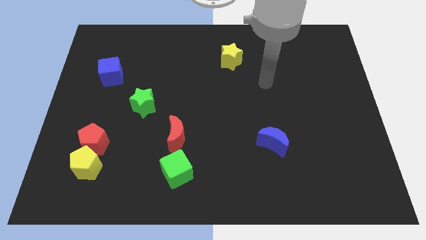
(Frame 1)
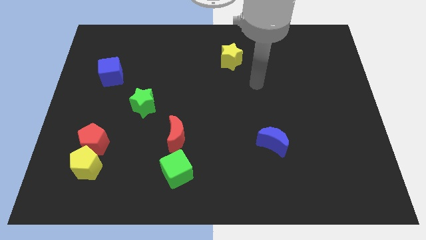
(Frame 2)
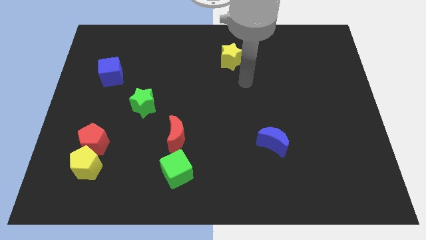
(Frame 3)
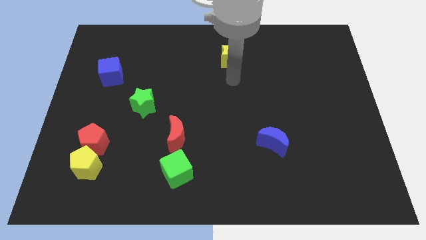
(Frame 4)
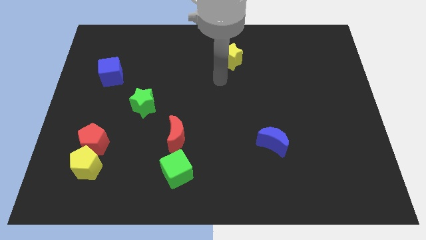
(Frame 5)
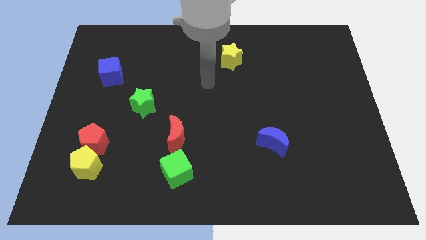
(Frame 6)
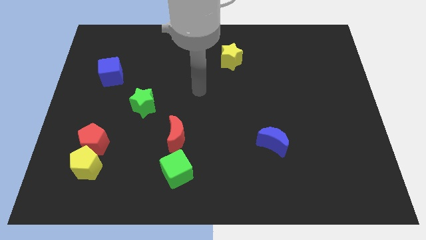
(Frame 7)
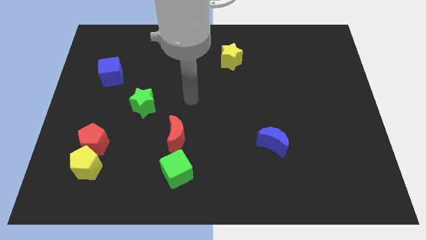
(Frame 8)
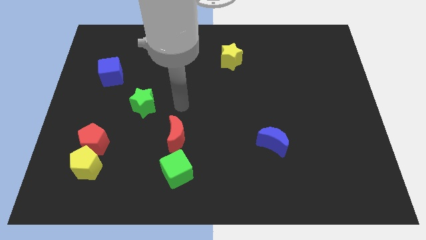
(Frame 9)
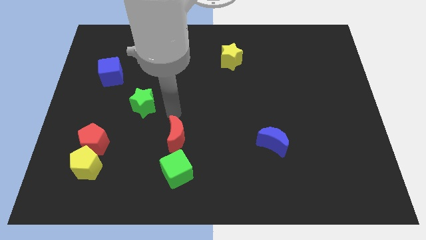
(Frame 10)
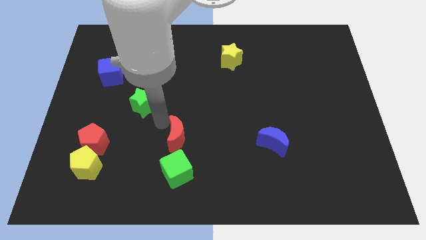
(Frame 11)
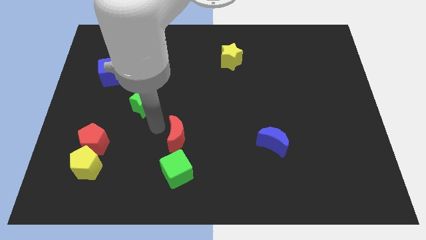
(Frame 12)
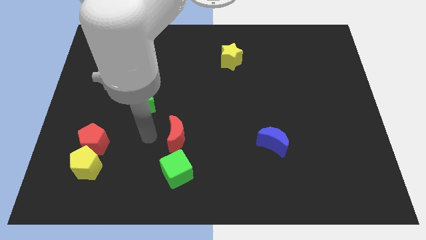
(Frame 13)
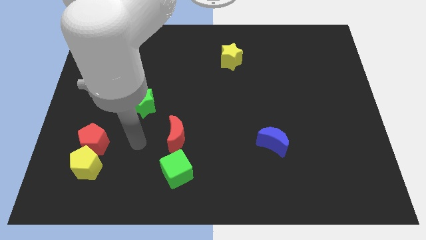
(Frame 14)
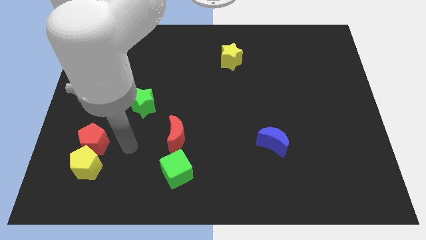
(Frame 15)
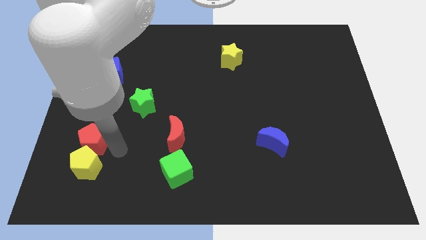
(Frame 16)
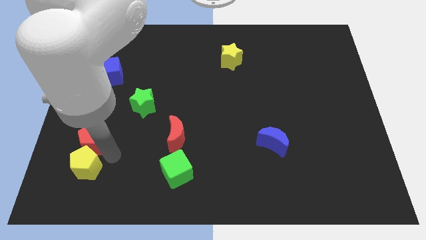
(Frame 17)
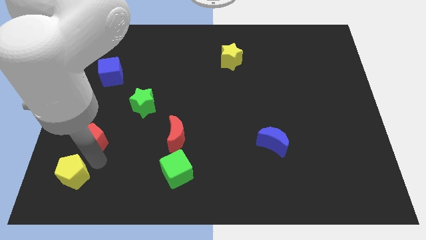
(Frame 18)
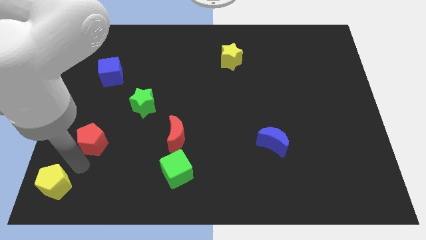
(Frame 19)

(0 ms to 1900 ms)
move the red pentagon away from the yellow pentagon

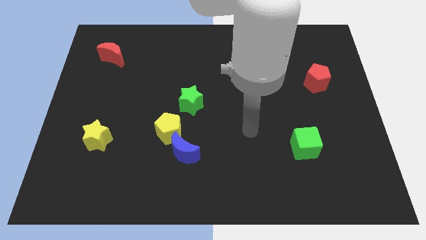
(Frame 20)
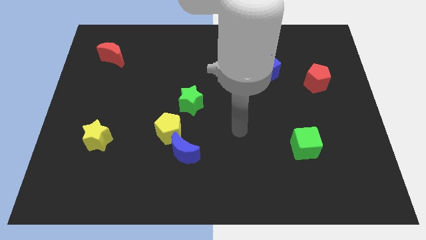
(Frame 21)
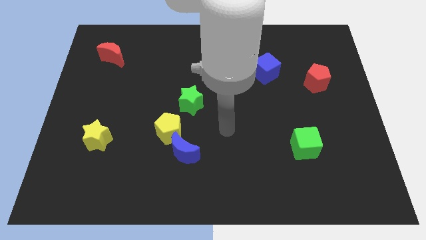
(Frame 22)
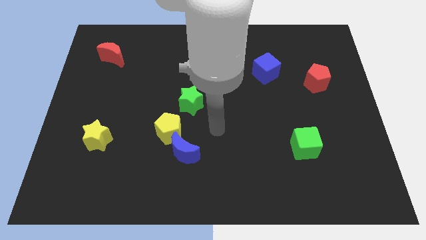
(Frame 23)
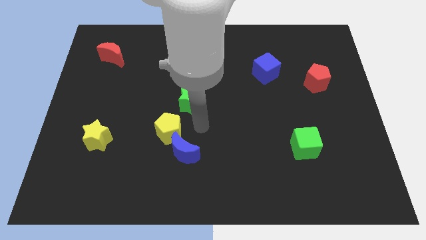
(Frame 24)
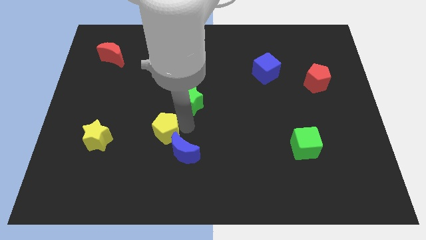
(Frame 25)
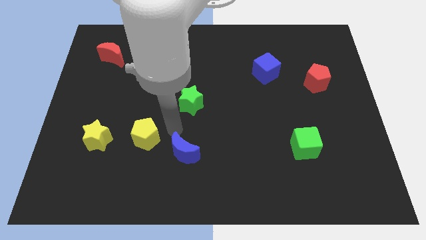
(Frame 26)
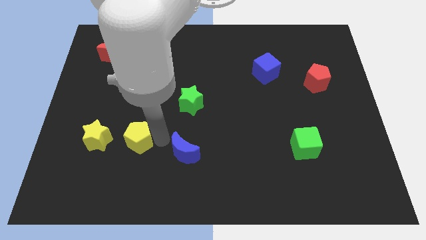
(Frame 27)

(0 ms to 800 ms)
separate the blue moon from the yellow pentagon

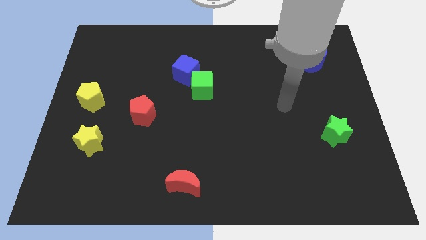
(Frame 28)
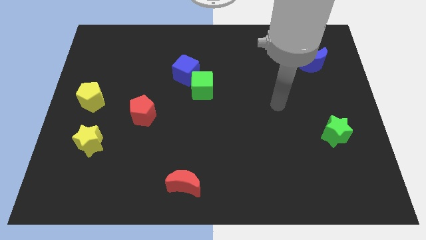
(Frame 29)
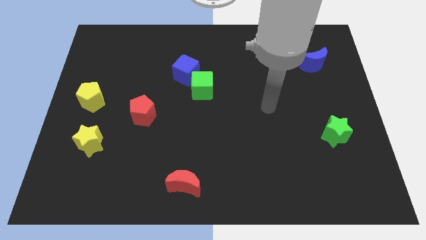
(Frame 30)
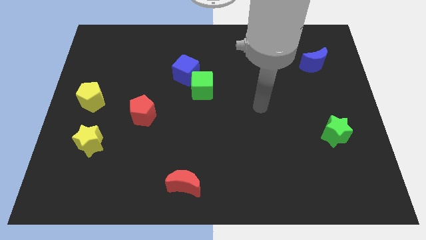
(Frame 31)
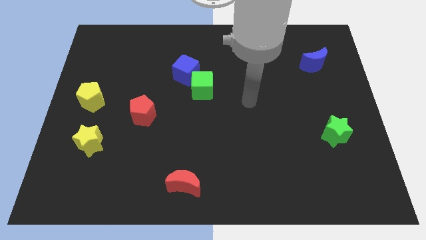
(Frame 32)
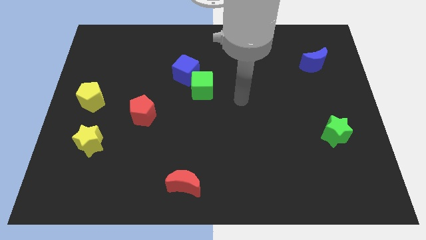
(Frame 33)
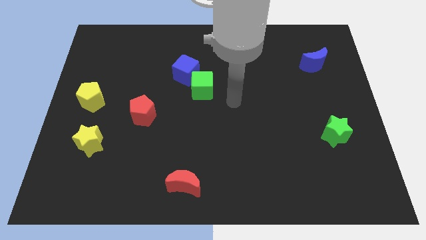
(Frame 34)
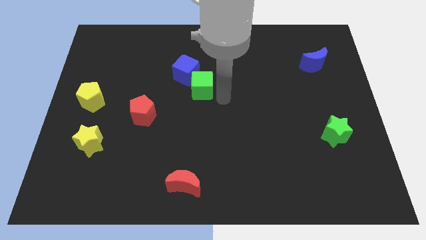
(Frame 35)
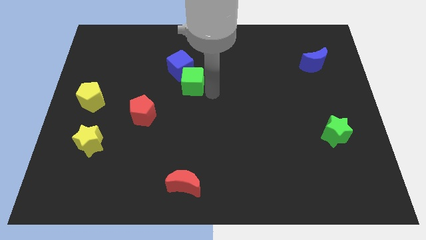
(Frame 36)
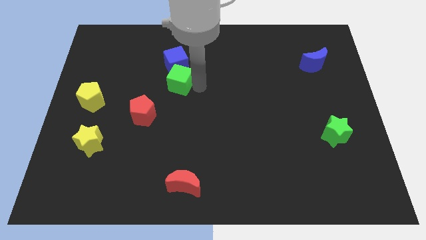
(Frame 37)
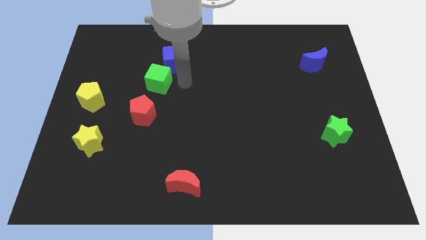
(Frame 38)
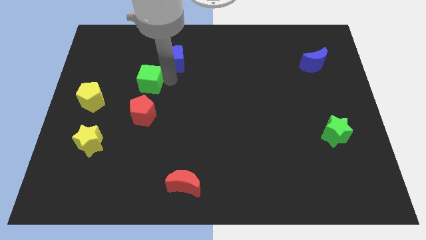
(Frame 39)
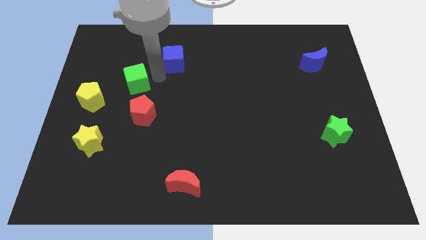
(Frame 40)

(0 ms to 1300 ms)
separate the blue cube from the green cube

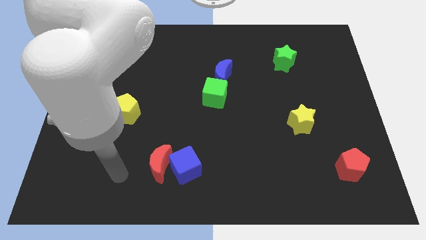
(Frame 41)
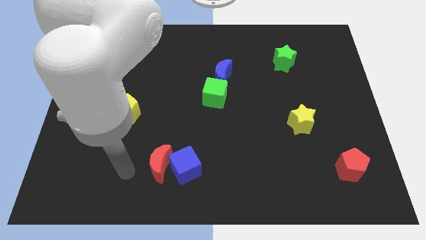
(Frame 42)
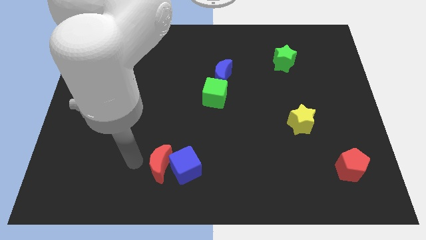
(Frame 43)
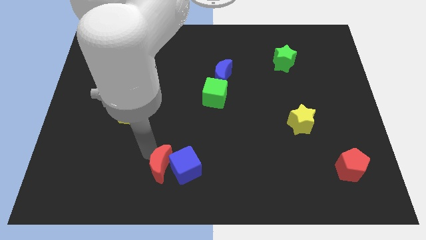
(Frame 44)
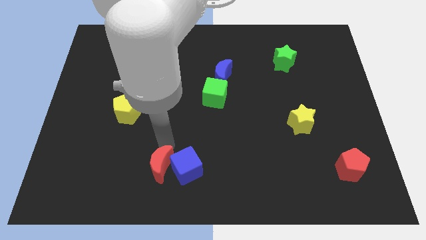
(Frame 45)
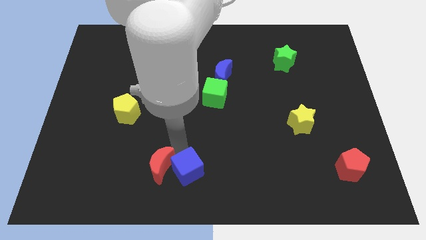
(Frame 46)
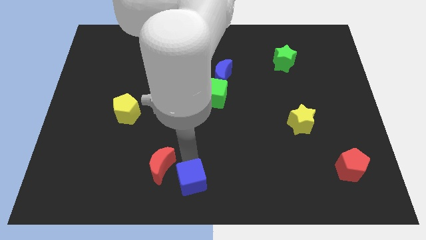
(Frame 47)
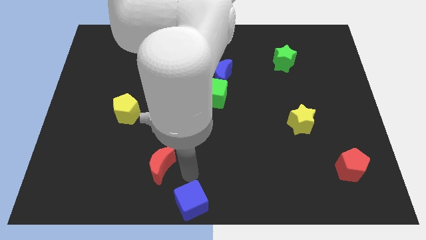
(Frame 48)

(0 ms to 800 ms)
pull the red moon apart from the blue cube

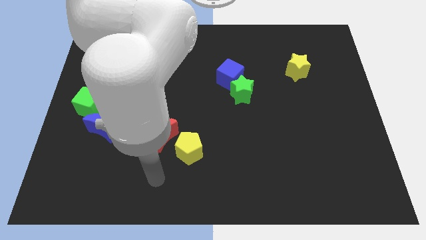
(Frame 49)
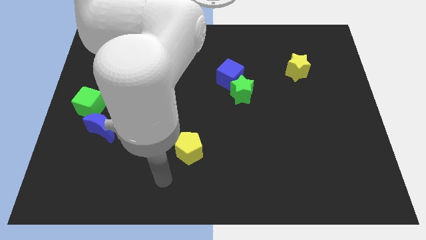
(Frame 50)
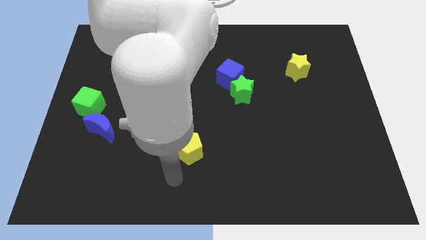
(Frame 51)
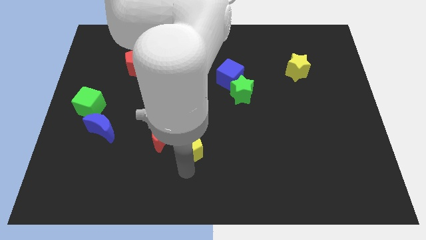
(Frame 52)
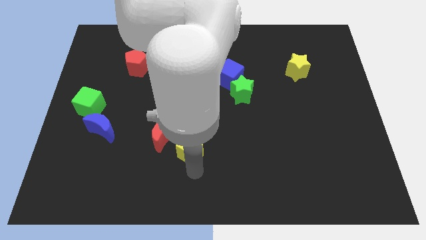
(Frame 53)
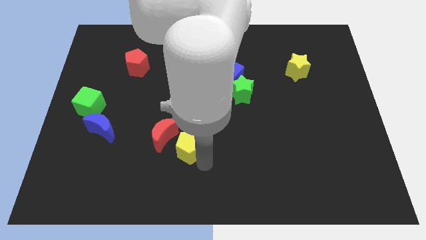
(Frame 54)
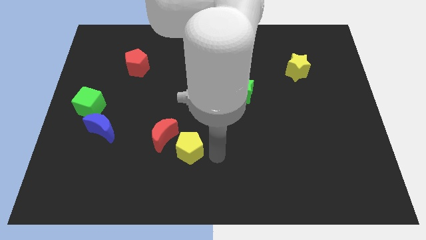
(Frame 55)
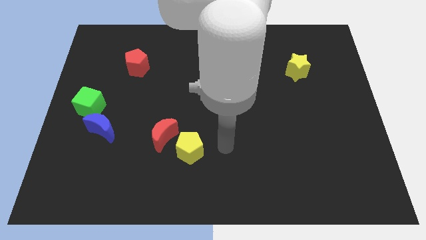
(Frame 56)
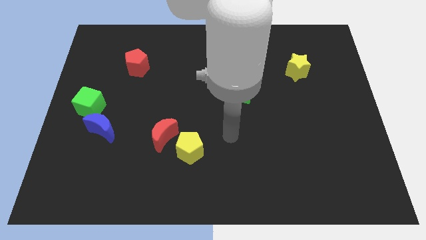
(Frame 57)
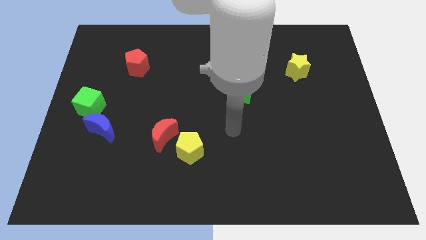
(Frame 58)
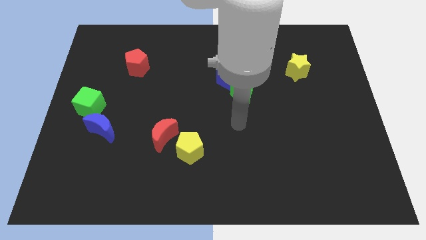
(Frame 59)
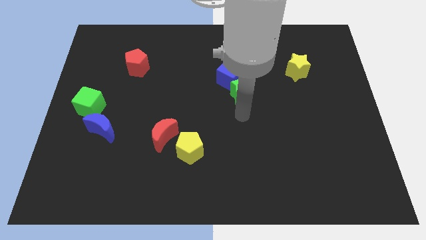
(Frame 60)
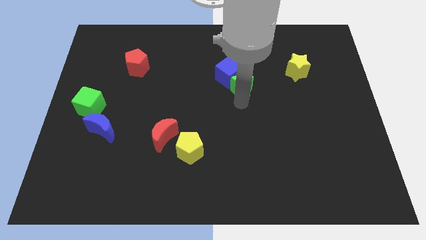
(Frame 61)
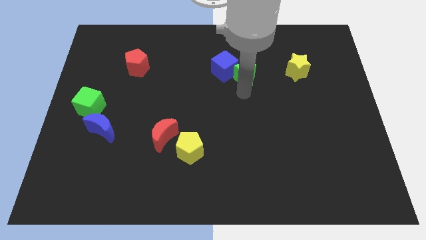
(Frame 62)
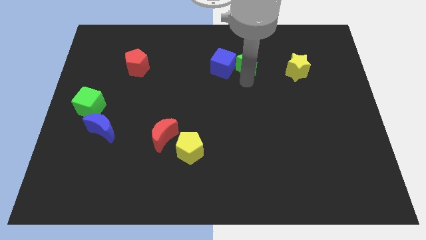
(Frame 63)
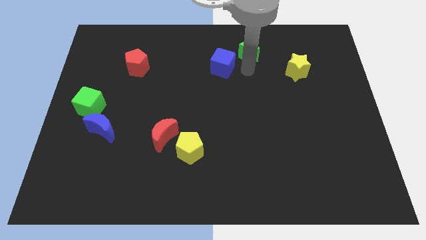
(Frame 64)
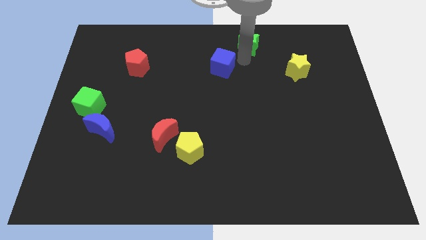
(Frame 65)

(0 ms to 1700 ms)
move the blue cube away from the green star

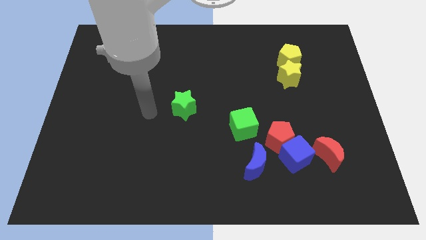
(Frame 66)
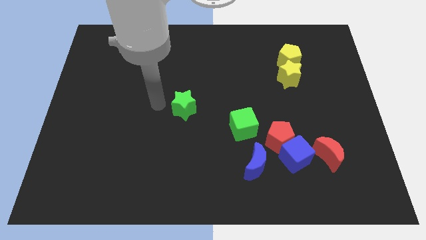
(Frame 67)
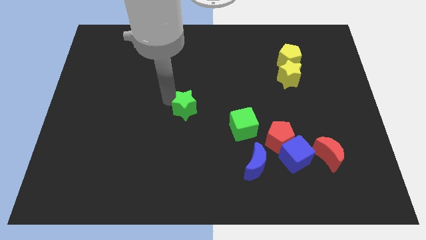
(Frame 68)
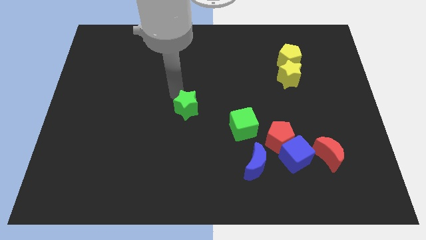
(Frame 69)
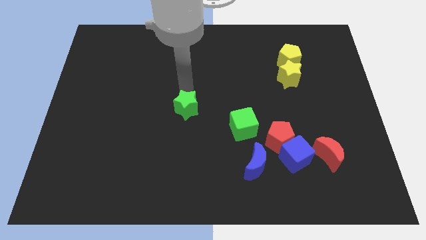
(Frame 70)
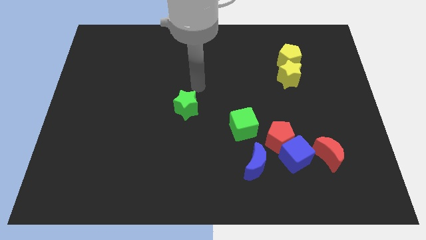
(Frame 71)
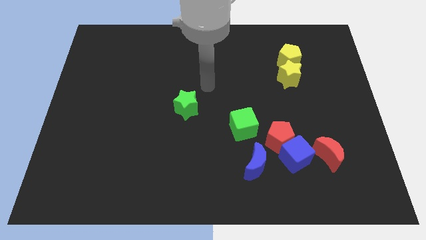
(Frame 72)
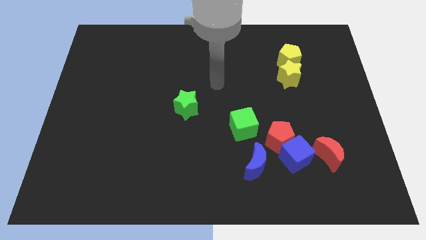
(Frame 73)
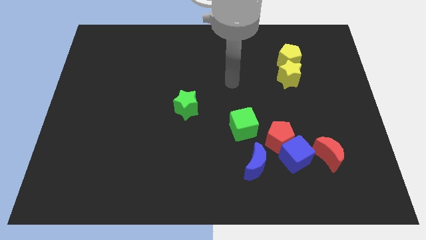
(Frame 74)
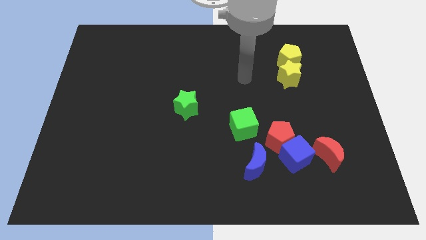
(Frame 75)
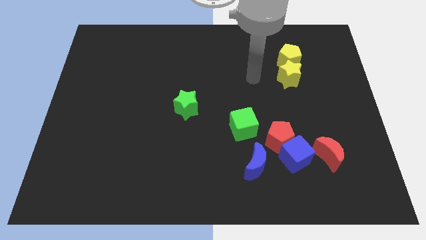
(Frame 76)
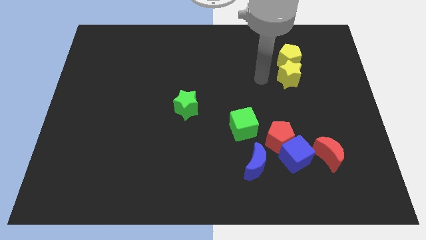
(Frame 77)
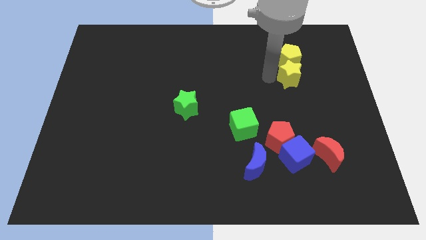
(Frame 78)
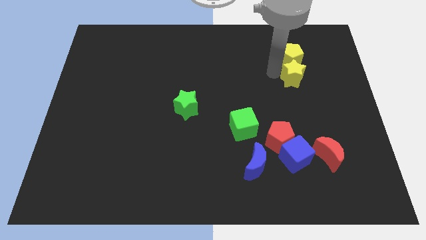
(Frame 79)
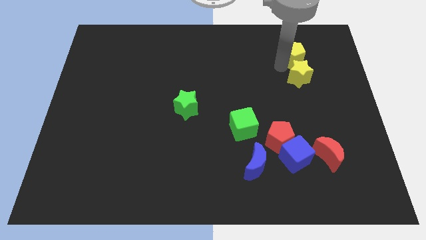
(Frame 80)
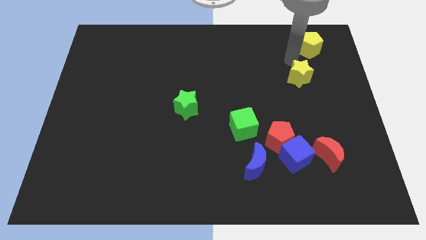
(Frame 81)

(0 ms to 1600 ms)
pull the yellow star apart from the yellow pentagon

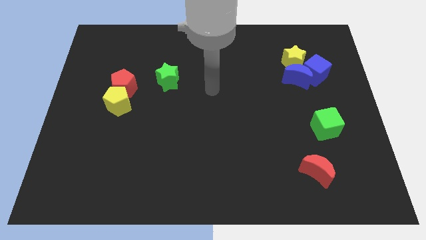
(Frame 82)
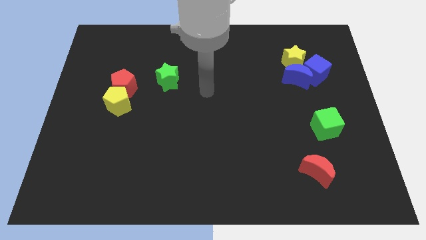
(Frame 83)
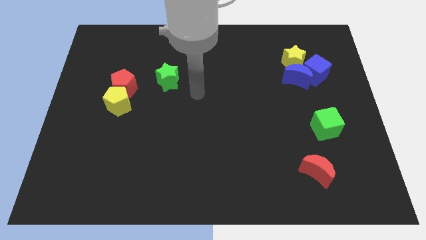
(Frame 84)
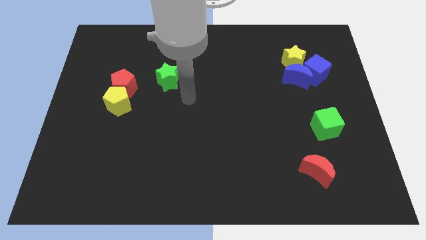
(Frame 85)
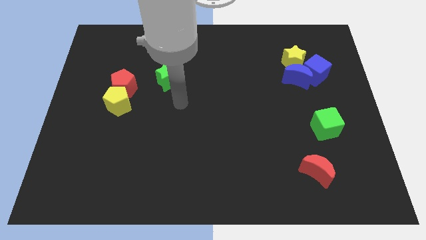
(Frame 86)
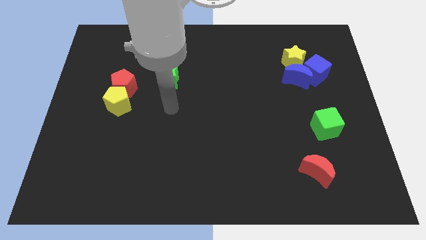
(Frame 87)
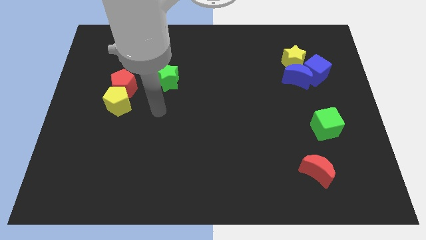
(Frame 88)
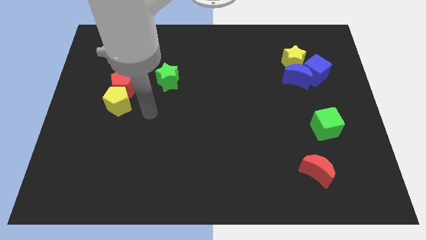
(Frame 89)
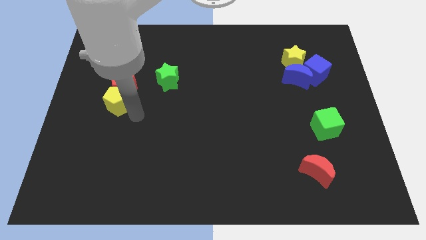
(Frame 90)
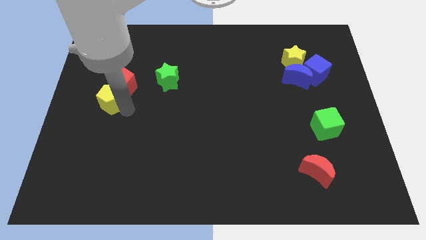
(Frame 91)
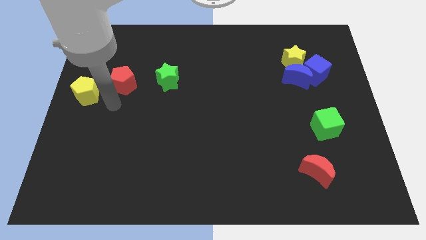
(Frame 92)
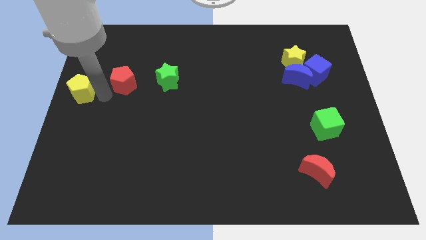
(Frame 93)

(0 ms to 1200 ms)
pull the red pentagon apart from the yellow pentagon

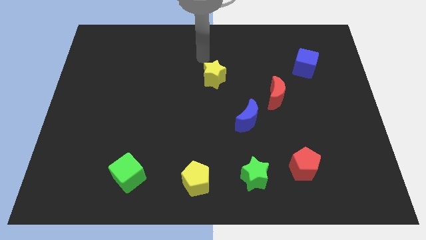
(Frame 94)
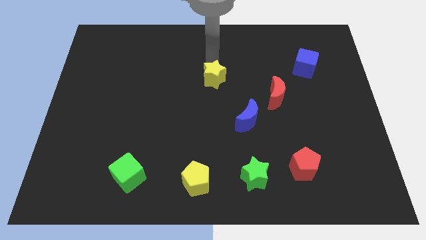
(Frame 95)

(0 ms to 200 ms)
move the red moon away from the blue moon
